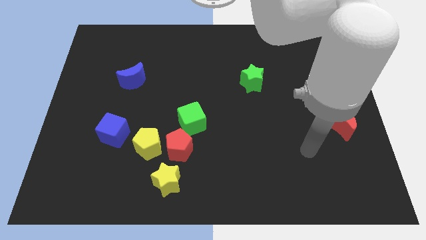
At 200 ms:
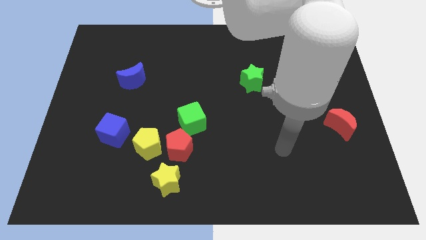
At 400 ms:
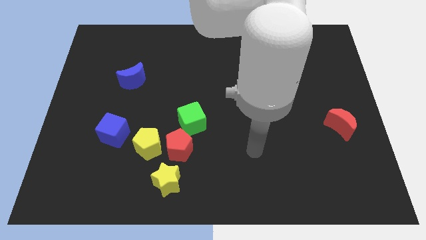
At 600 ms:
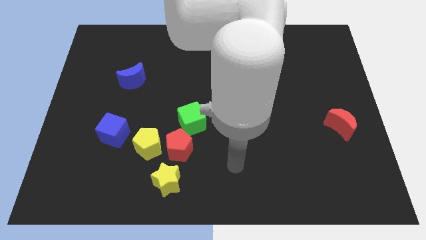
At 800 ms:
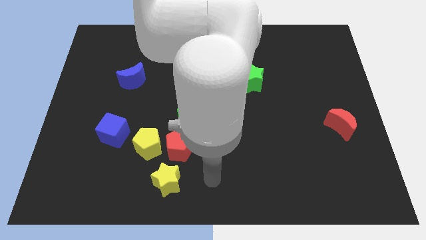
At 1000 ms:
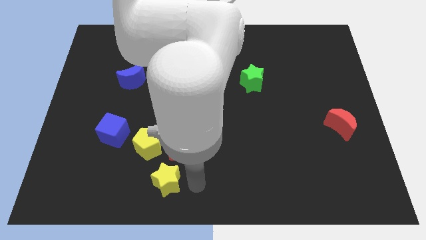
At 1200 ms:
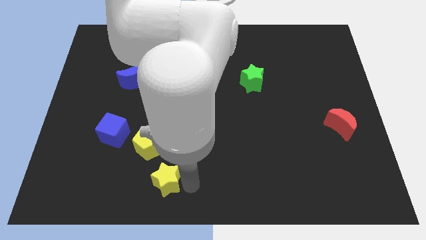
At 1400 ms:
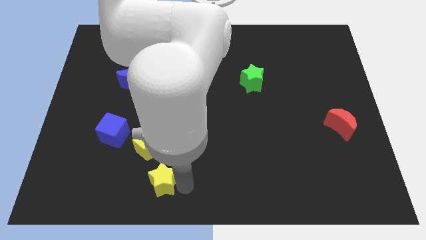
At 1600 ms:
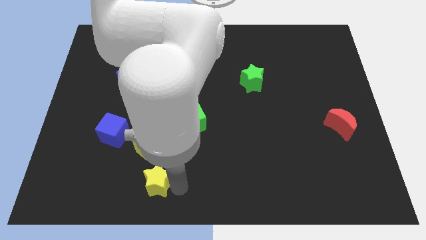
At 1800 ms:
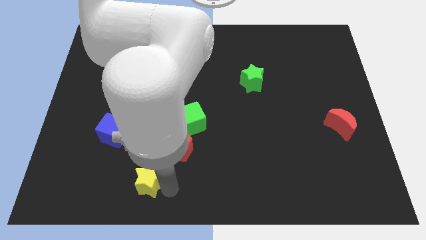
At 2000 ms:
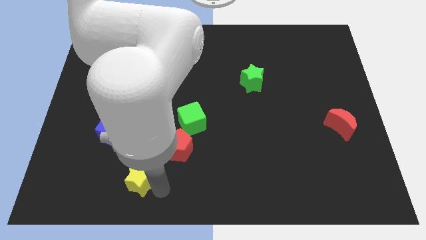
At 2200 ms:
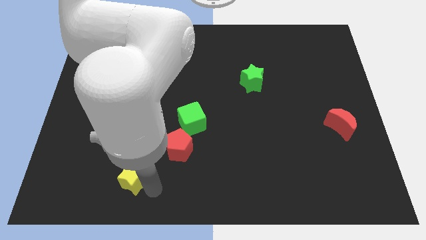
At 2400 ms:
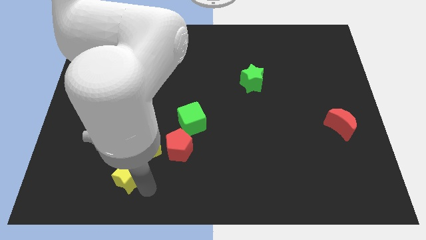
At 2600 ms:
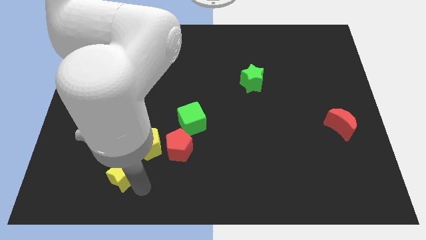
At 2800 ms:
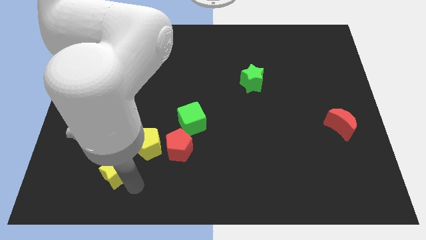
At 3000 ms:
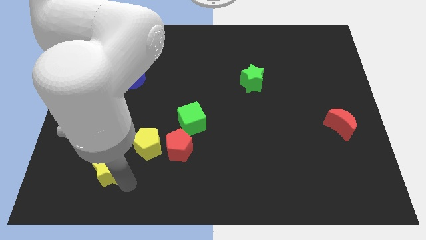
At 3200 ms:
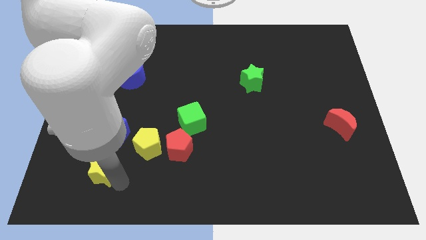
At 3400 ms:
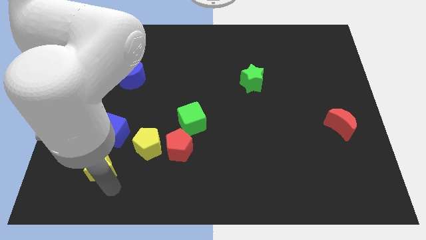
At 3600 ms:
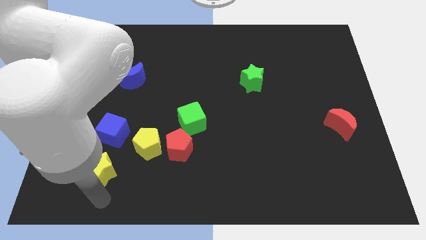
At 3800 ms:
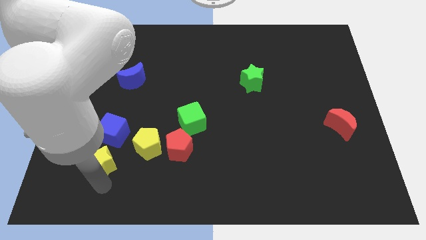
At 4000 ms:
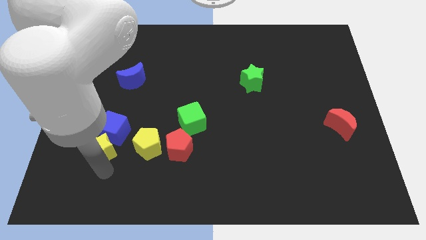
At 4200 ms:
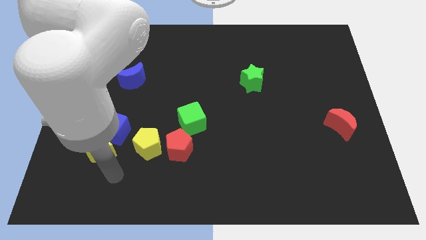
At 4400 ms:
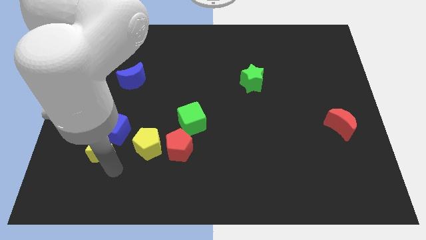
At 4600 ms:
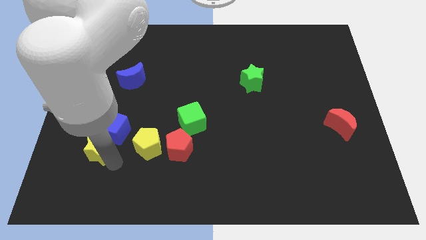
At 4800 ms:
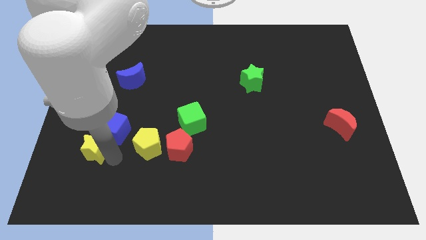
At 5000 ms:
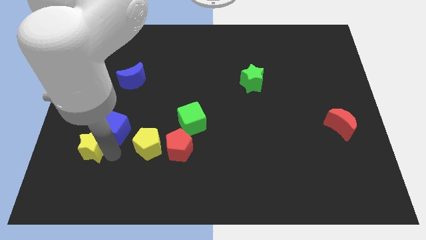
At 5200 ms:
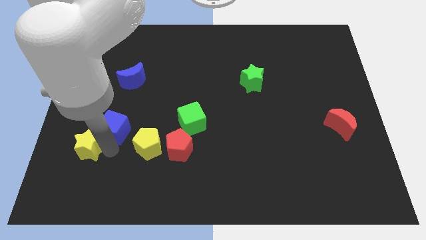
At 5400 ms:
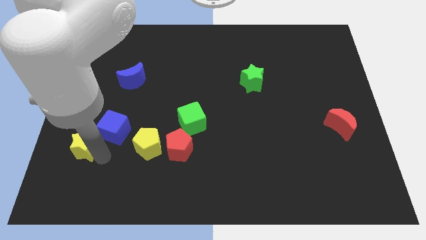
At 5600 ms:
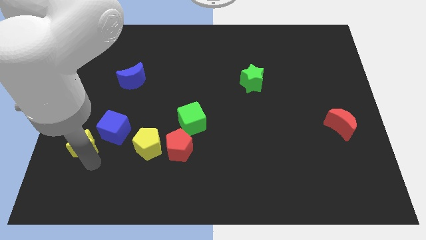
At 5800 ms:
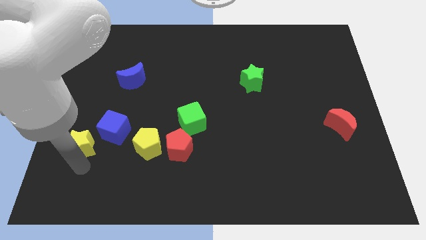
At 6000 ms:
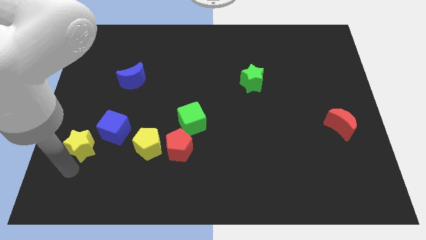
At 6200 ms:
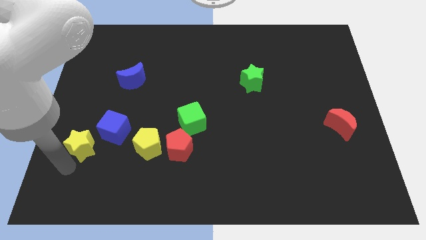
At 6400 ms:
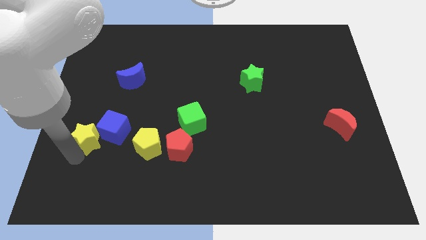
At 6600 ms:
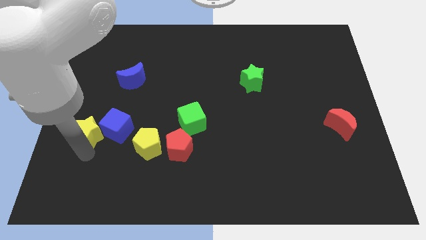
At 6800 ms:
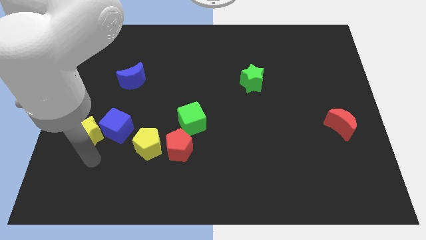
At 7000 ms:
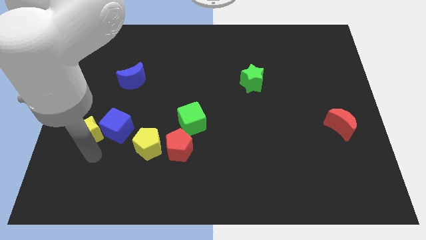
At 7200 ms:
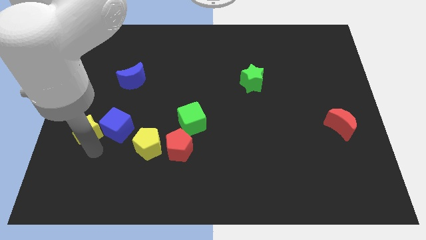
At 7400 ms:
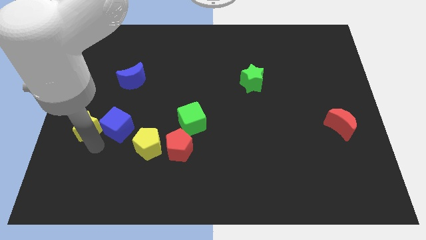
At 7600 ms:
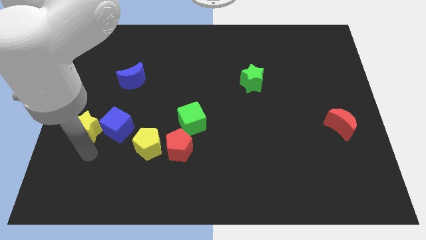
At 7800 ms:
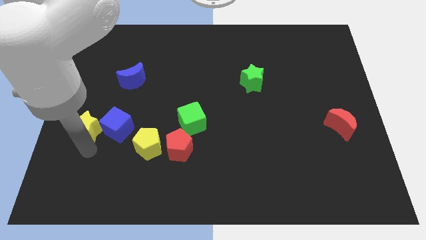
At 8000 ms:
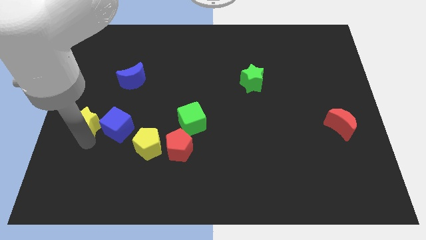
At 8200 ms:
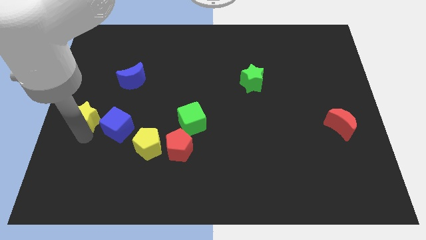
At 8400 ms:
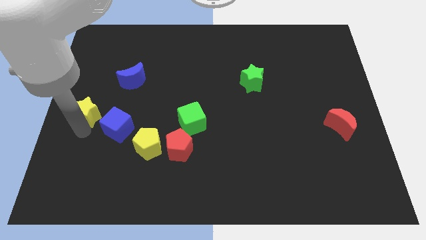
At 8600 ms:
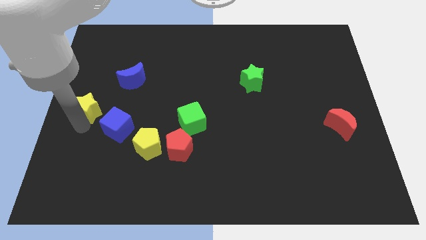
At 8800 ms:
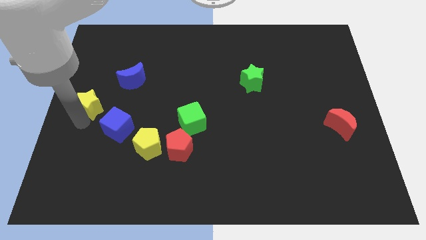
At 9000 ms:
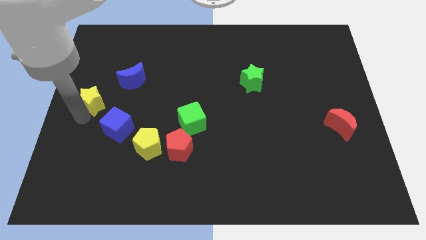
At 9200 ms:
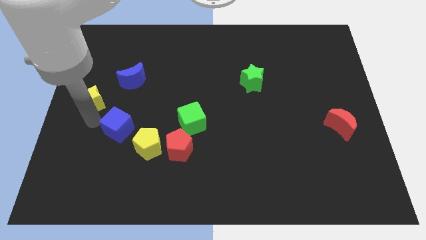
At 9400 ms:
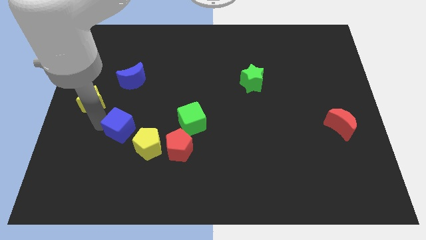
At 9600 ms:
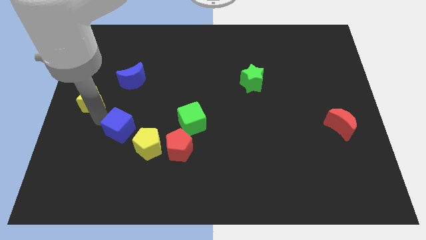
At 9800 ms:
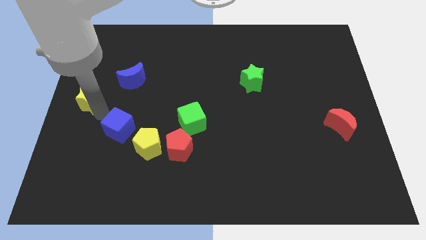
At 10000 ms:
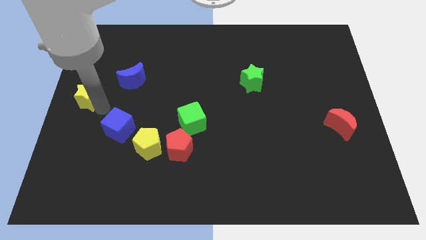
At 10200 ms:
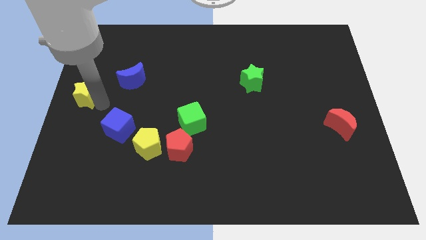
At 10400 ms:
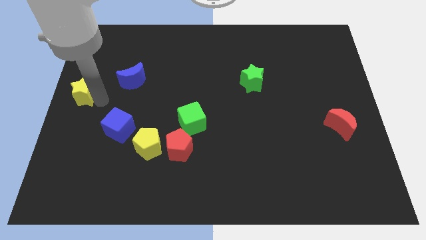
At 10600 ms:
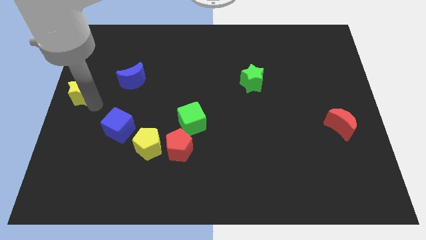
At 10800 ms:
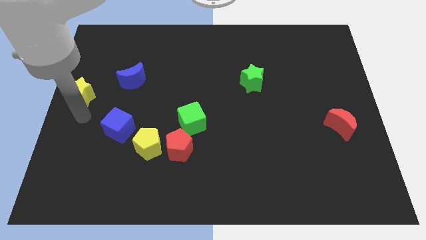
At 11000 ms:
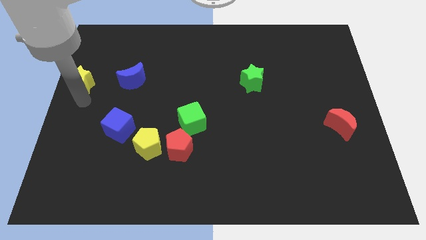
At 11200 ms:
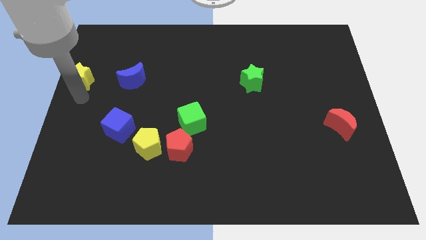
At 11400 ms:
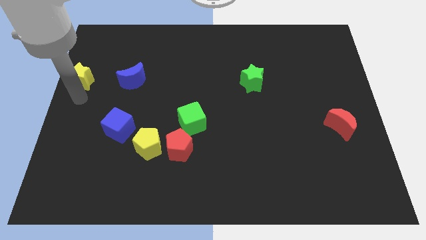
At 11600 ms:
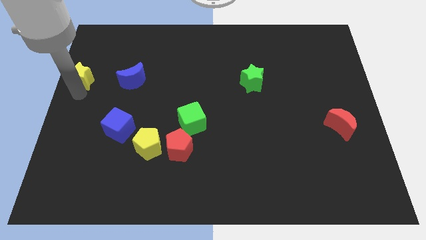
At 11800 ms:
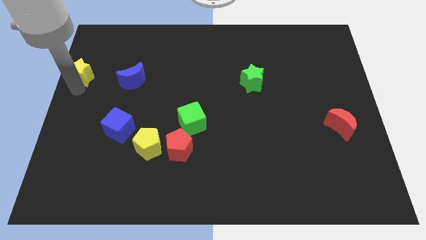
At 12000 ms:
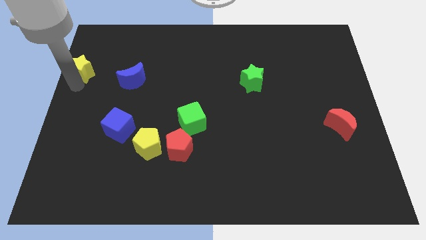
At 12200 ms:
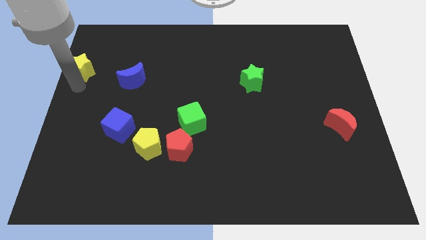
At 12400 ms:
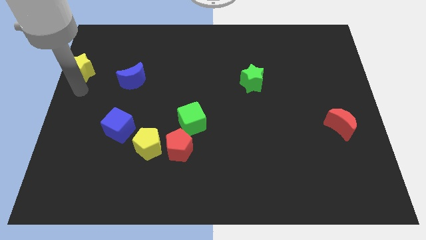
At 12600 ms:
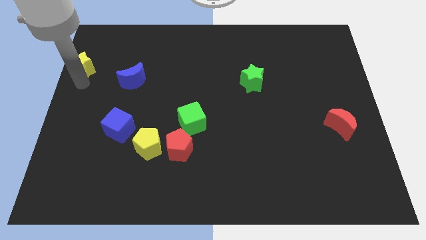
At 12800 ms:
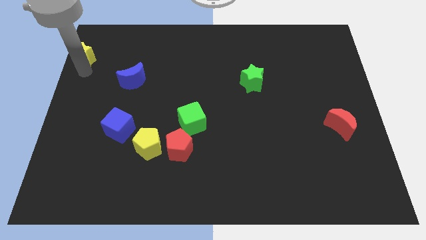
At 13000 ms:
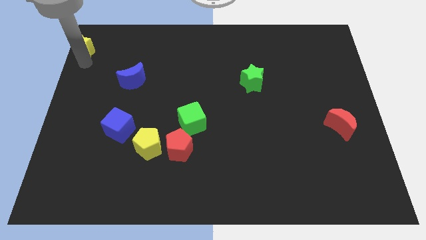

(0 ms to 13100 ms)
move the yellow star to the top left corner
